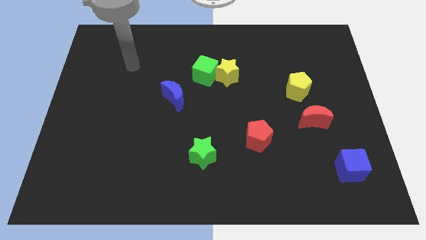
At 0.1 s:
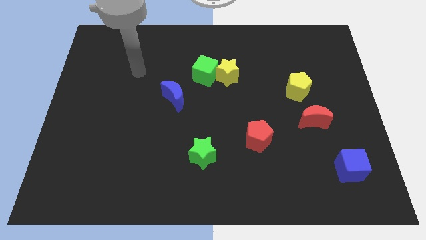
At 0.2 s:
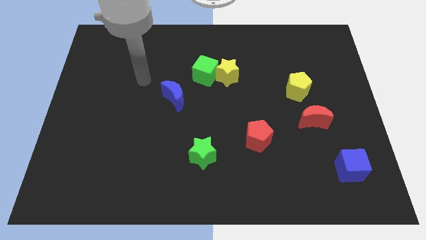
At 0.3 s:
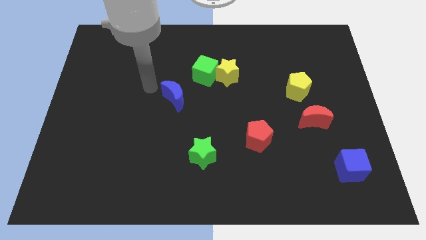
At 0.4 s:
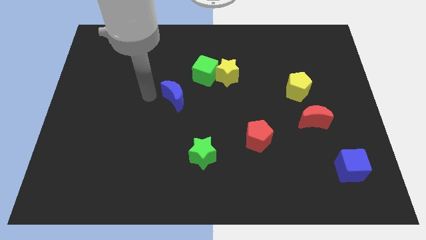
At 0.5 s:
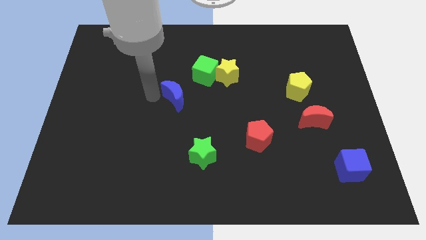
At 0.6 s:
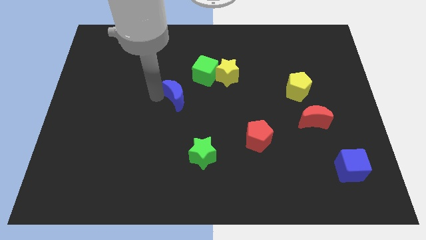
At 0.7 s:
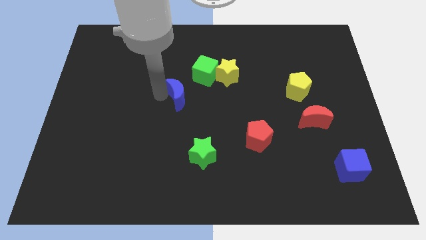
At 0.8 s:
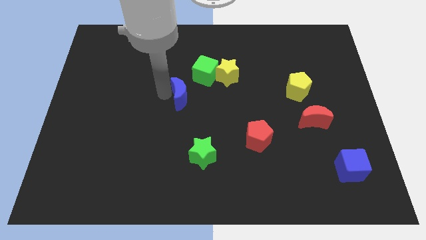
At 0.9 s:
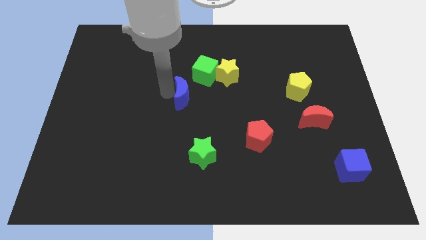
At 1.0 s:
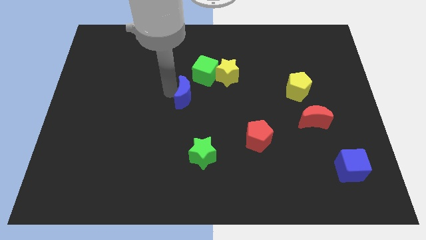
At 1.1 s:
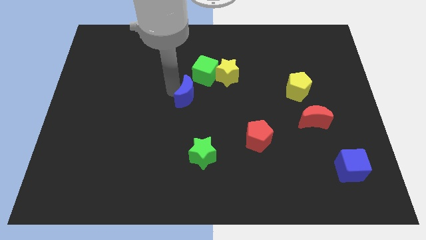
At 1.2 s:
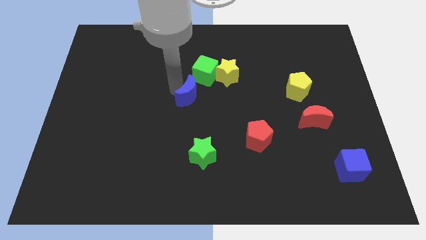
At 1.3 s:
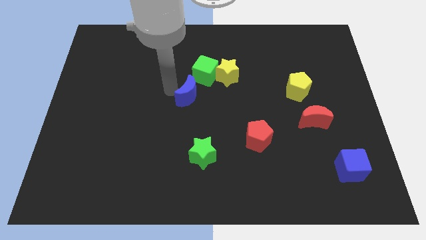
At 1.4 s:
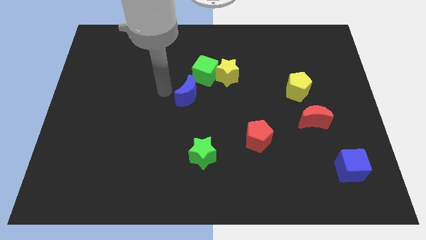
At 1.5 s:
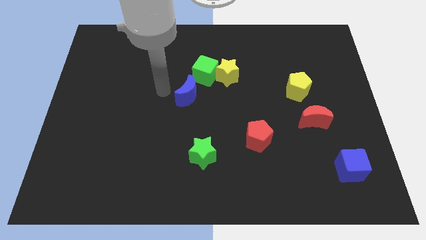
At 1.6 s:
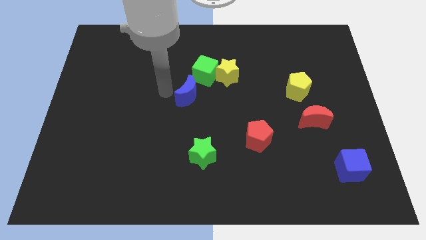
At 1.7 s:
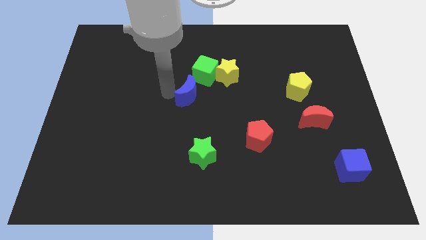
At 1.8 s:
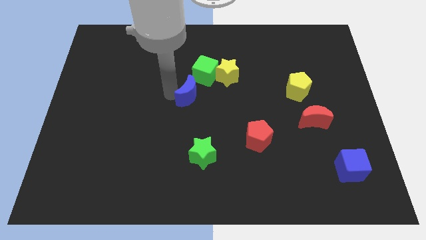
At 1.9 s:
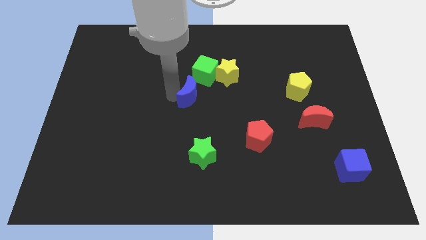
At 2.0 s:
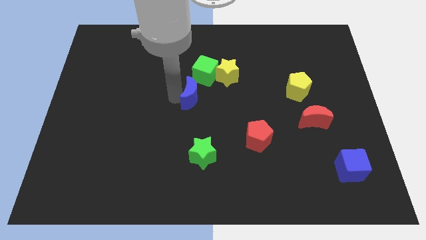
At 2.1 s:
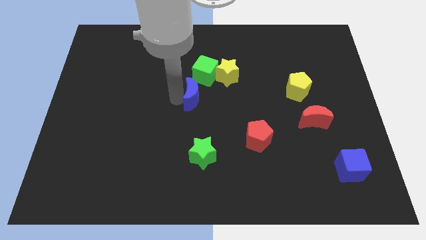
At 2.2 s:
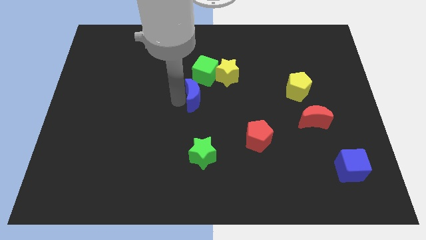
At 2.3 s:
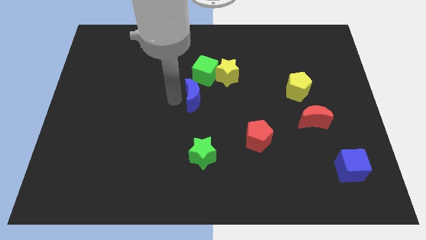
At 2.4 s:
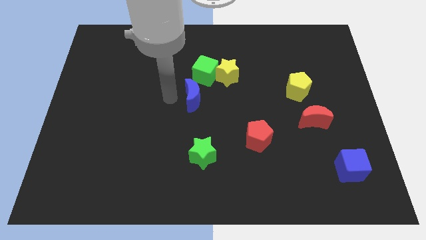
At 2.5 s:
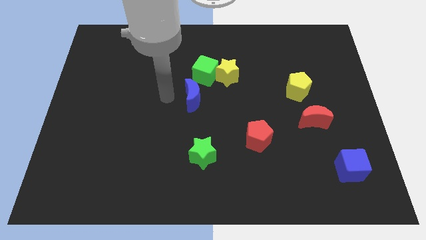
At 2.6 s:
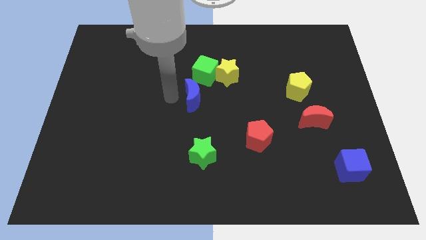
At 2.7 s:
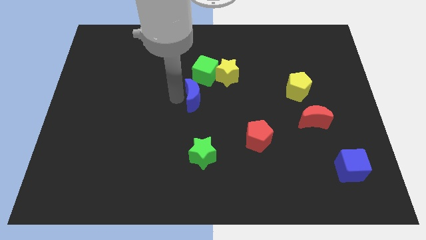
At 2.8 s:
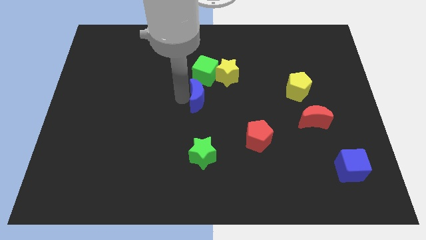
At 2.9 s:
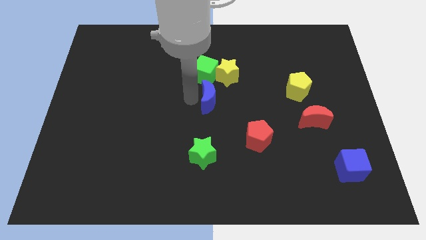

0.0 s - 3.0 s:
push the blue moon to the right somewhat

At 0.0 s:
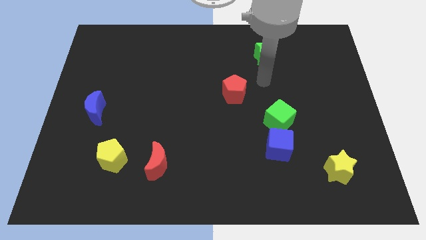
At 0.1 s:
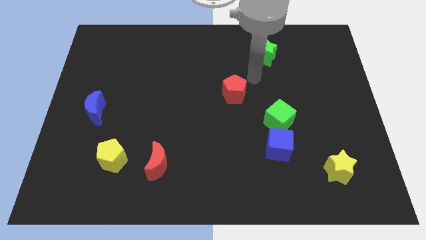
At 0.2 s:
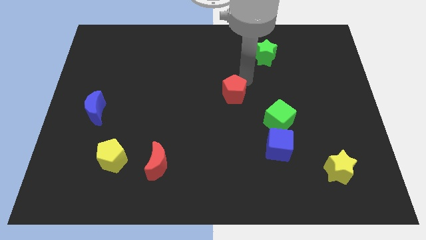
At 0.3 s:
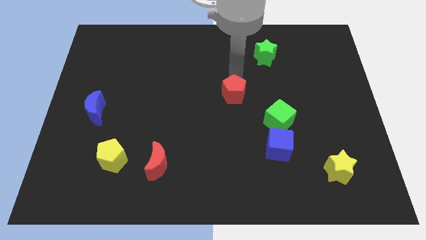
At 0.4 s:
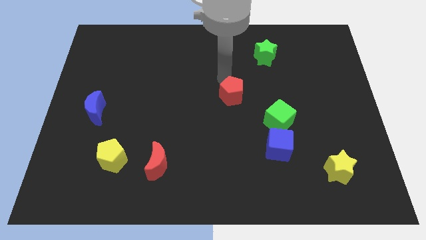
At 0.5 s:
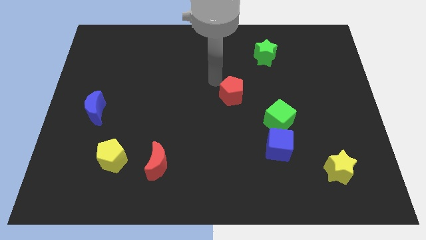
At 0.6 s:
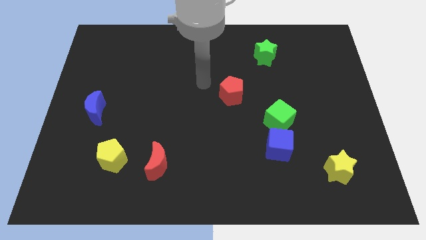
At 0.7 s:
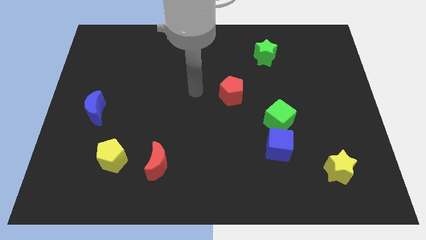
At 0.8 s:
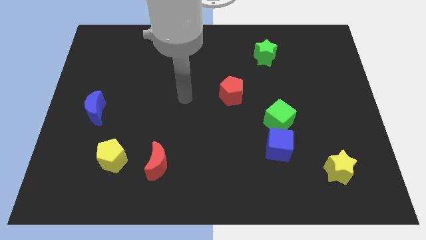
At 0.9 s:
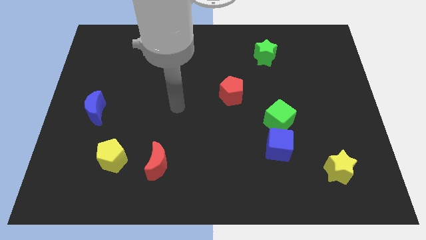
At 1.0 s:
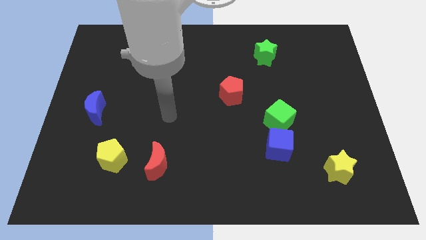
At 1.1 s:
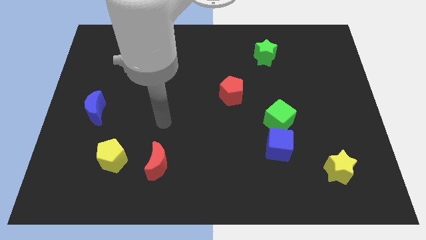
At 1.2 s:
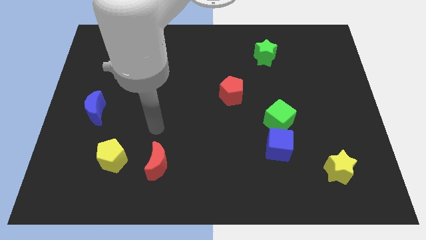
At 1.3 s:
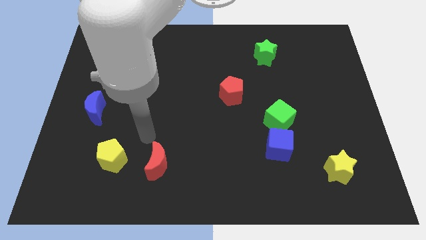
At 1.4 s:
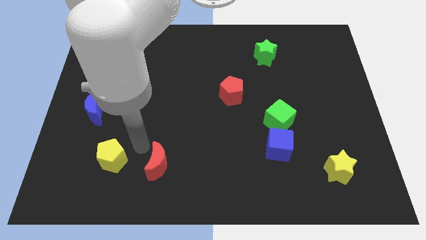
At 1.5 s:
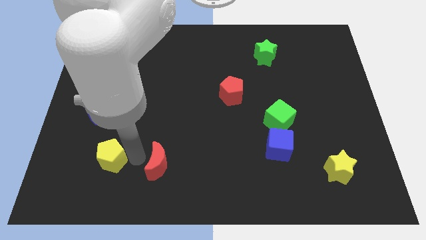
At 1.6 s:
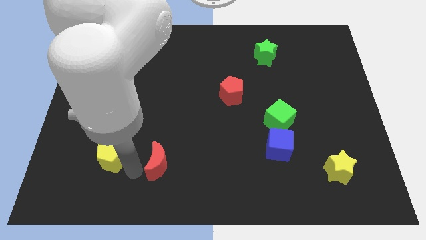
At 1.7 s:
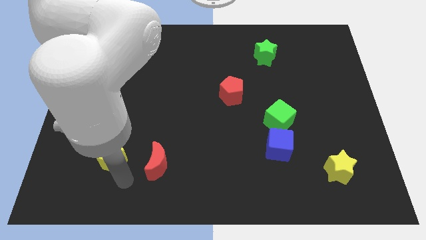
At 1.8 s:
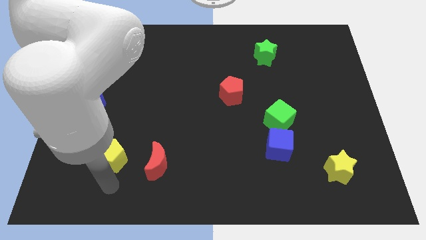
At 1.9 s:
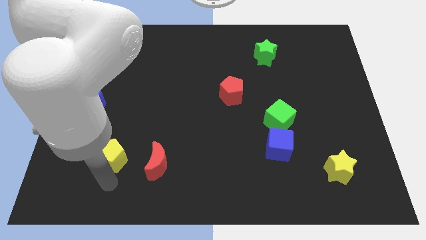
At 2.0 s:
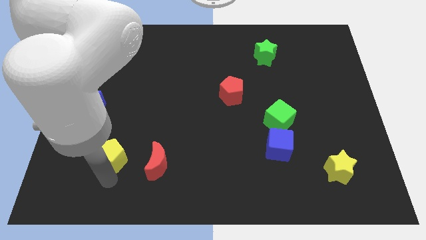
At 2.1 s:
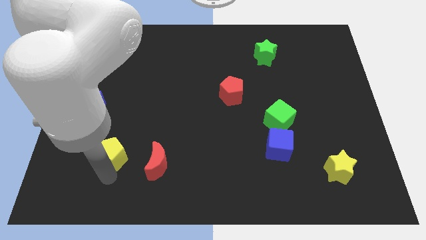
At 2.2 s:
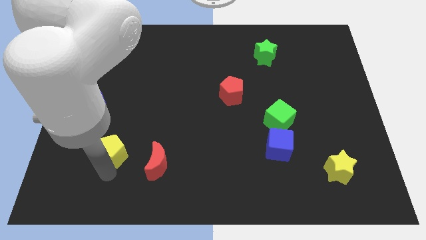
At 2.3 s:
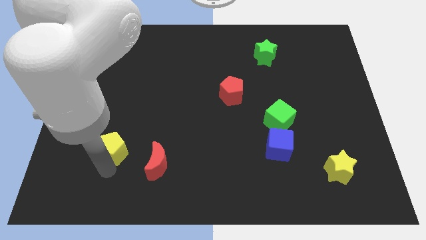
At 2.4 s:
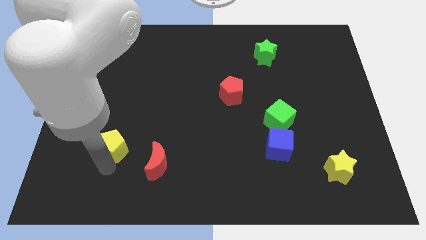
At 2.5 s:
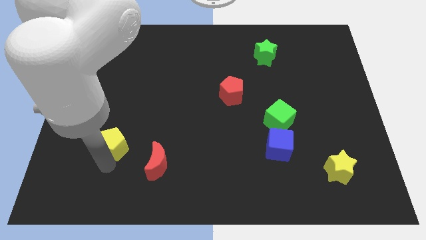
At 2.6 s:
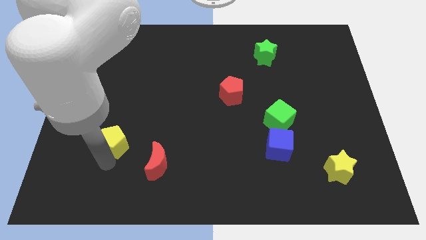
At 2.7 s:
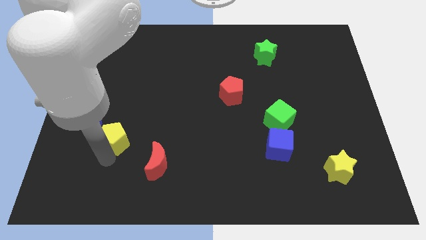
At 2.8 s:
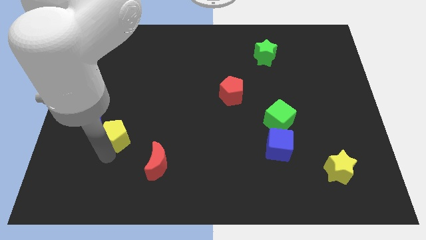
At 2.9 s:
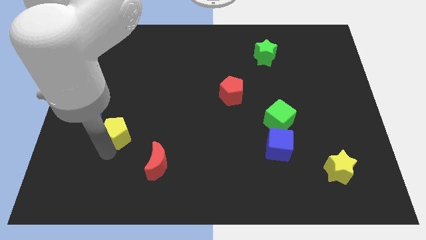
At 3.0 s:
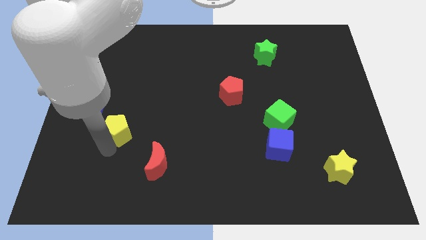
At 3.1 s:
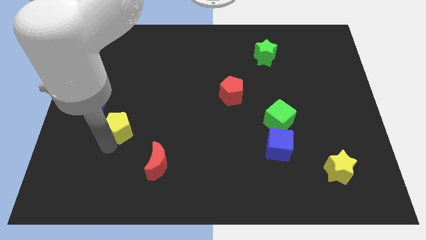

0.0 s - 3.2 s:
slightly move the yellow pentagon upwards

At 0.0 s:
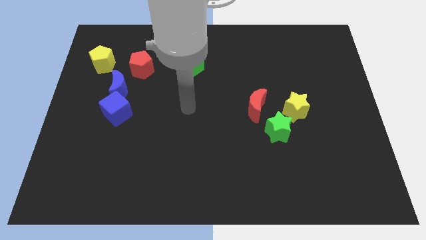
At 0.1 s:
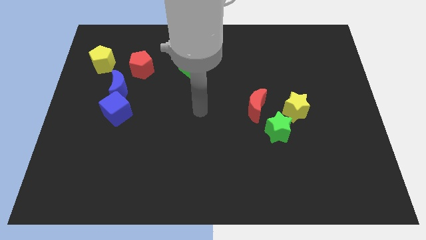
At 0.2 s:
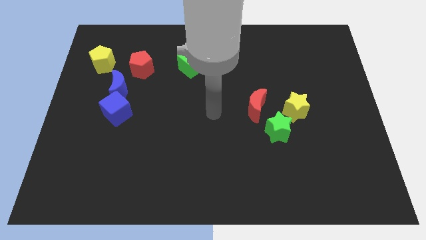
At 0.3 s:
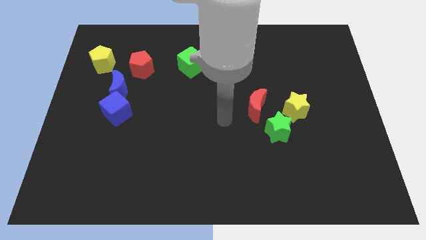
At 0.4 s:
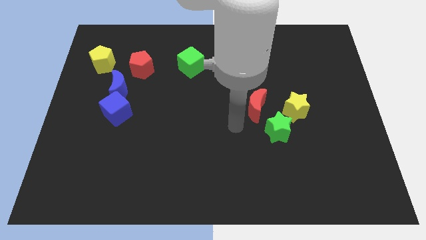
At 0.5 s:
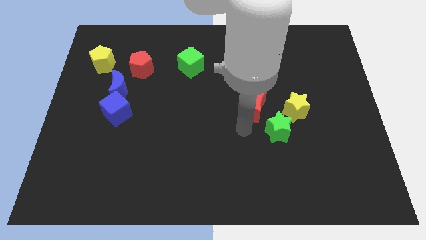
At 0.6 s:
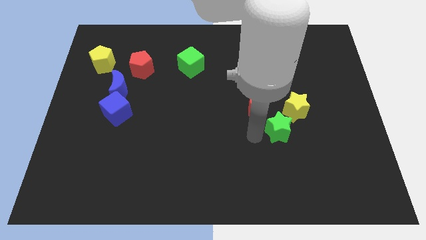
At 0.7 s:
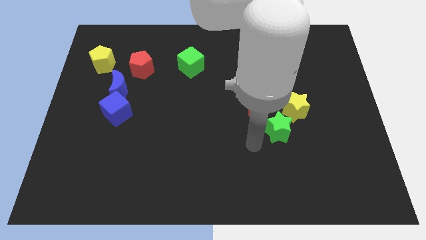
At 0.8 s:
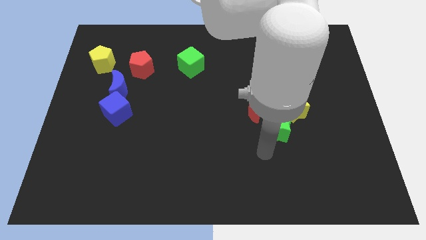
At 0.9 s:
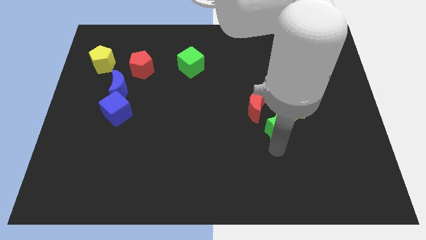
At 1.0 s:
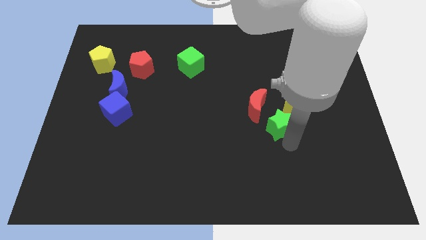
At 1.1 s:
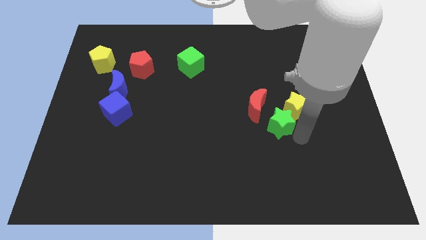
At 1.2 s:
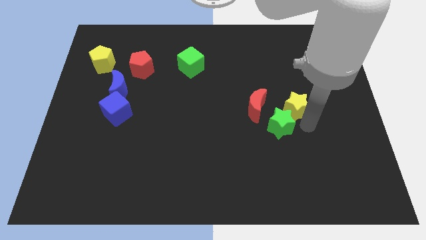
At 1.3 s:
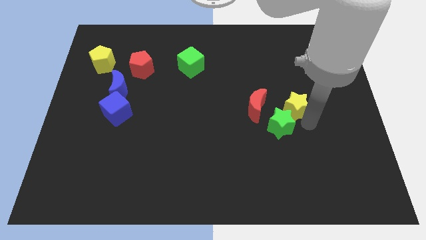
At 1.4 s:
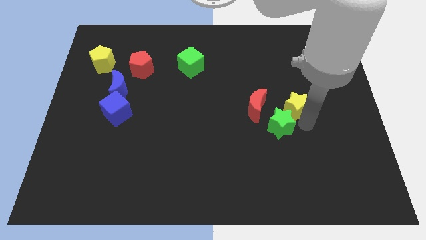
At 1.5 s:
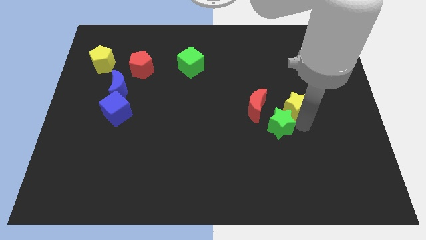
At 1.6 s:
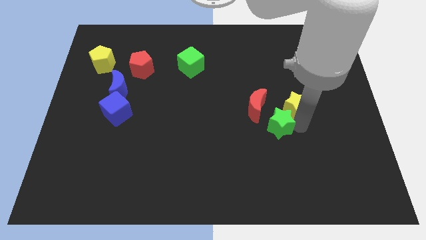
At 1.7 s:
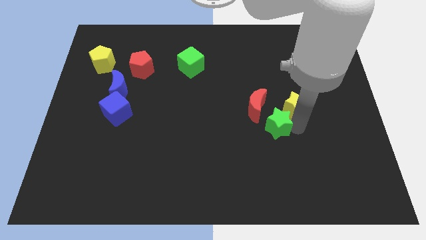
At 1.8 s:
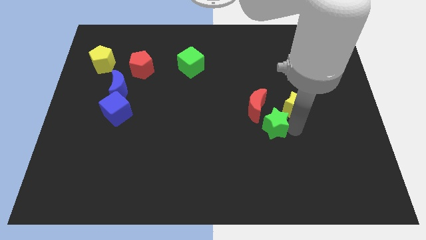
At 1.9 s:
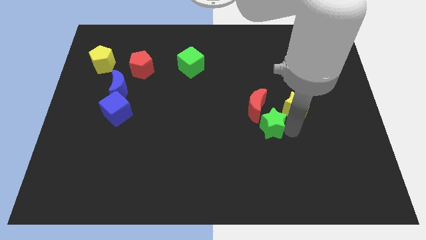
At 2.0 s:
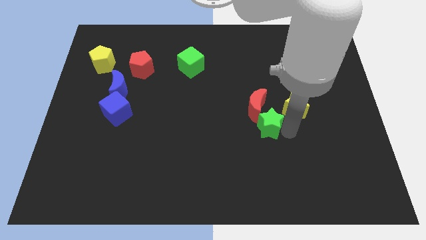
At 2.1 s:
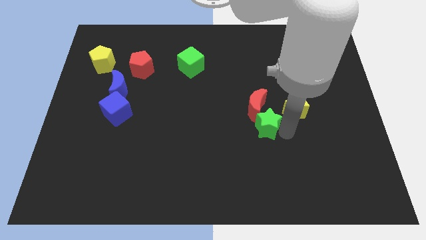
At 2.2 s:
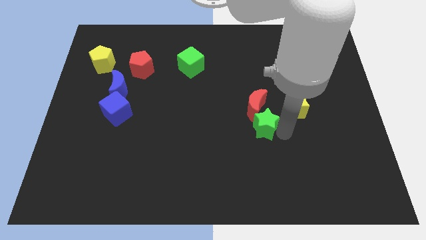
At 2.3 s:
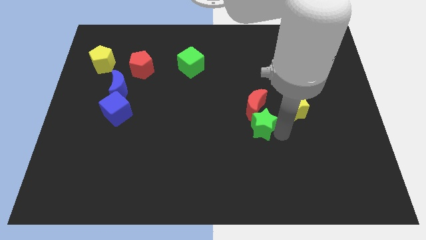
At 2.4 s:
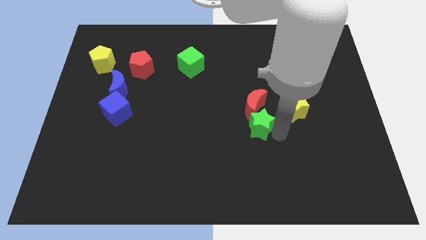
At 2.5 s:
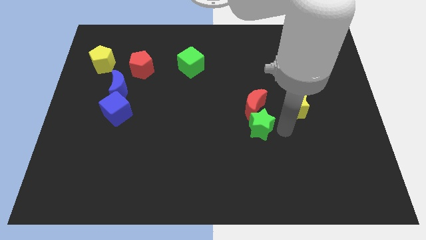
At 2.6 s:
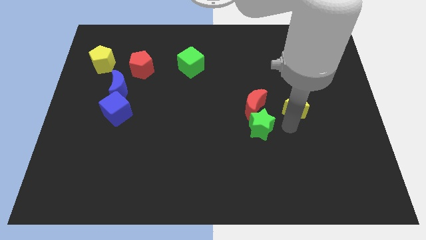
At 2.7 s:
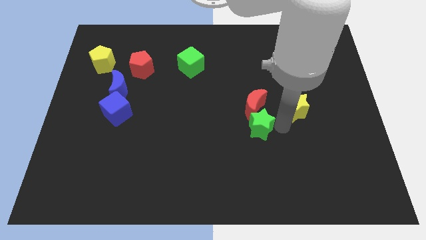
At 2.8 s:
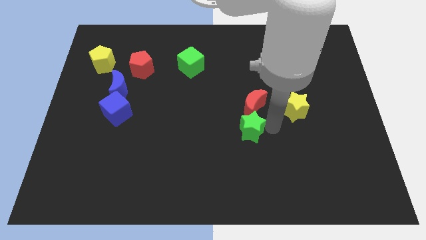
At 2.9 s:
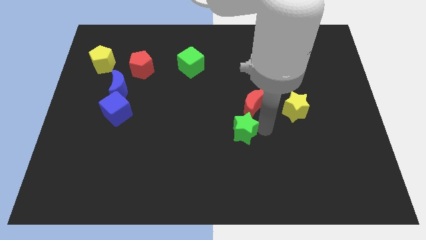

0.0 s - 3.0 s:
slightly move the green star left
